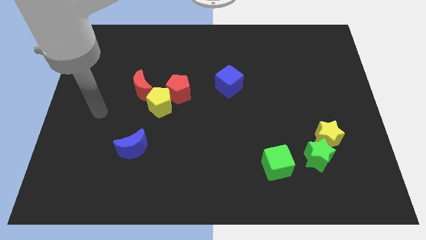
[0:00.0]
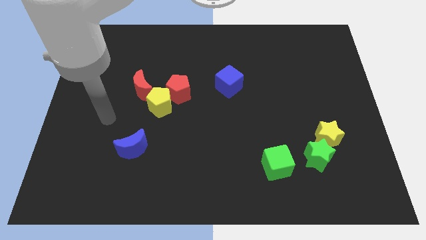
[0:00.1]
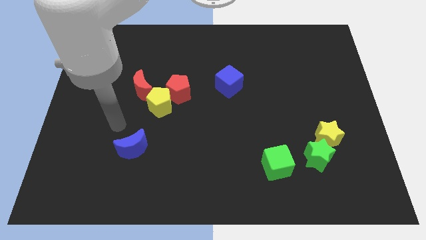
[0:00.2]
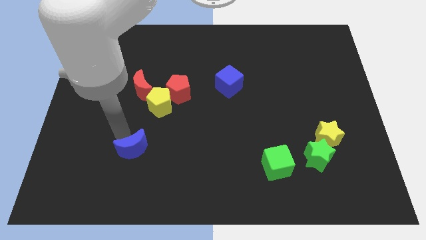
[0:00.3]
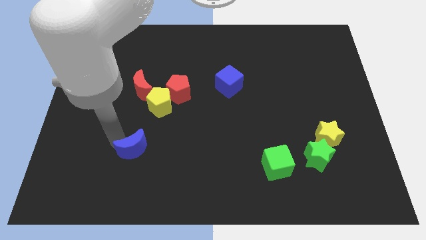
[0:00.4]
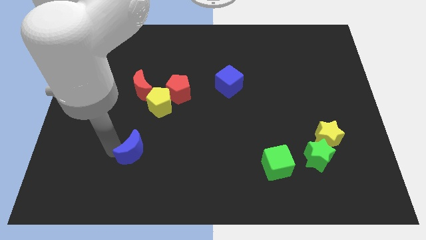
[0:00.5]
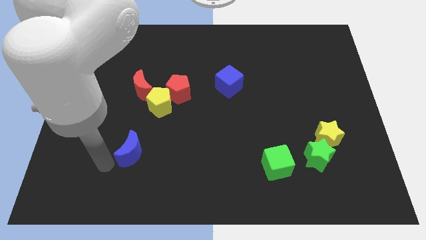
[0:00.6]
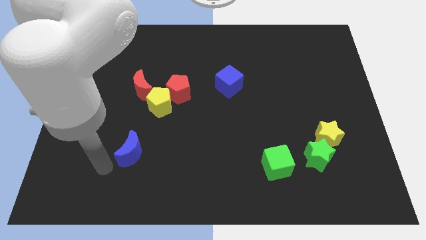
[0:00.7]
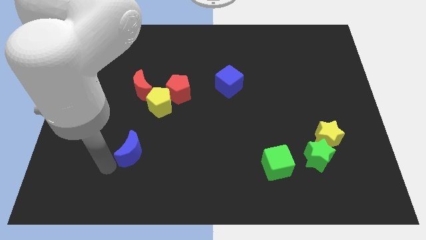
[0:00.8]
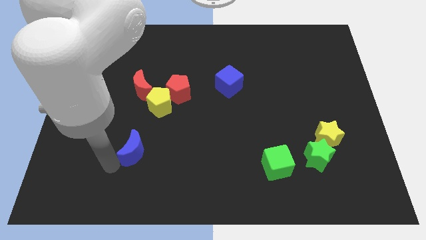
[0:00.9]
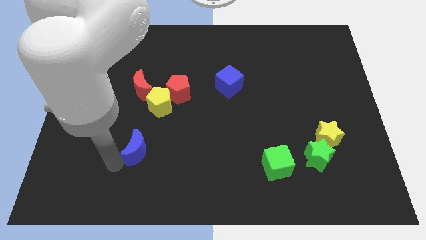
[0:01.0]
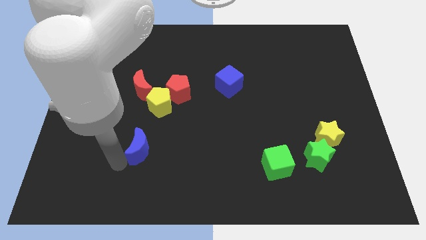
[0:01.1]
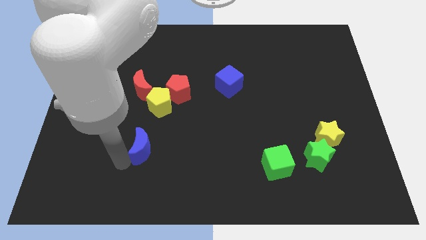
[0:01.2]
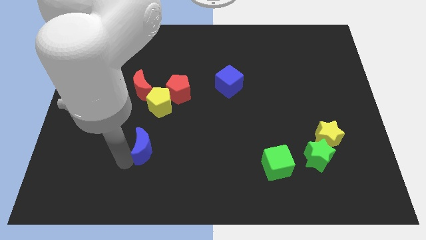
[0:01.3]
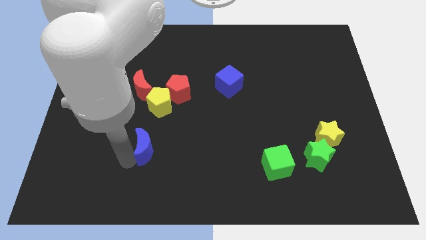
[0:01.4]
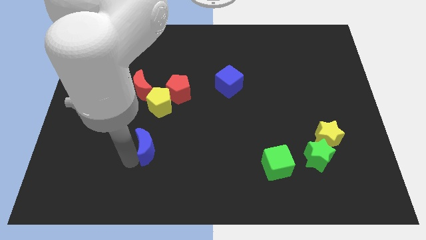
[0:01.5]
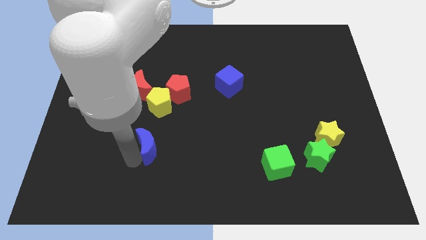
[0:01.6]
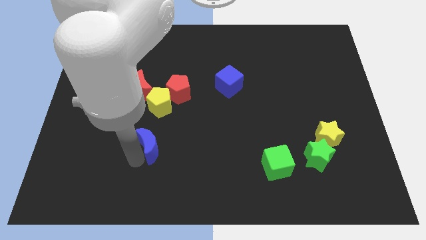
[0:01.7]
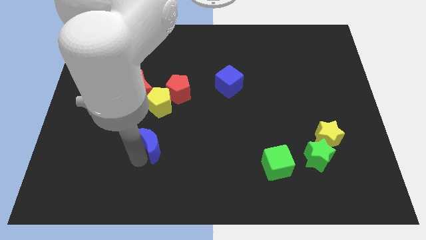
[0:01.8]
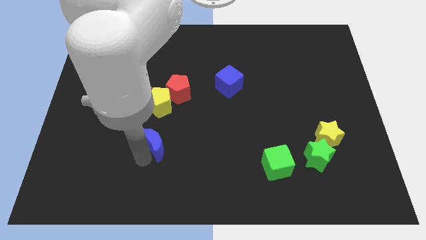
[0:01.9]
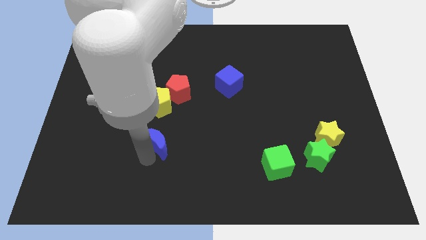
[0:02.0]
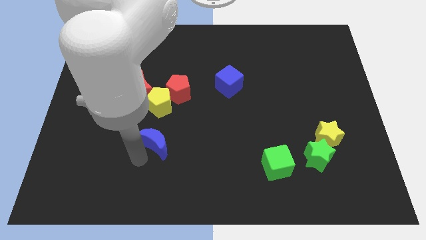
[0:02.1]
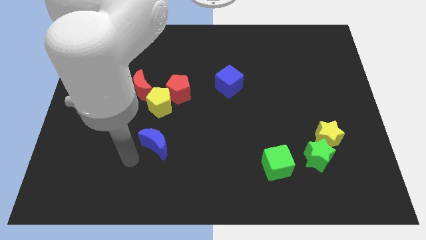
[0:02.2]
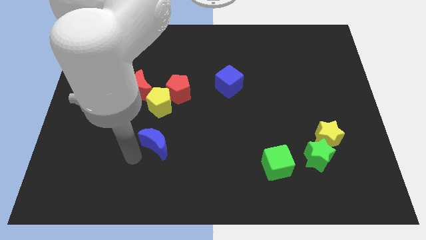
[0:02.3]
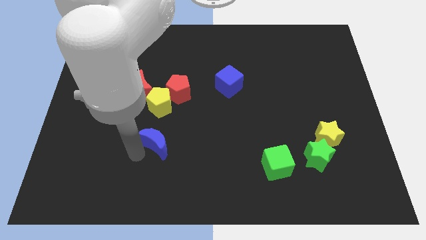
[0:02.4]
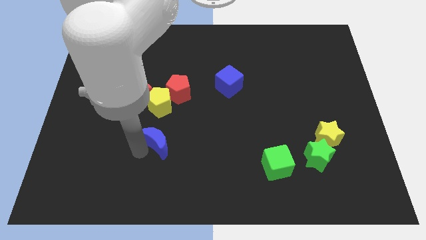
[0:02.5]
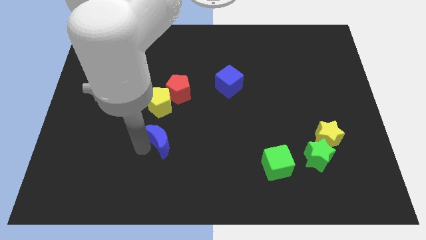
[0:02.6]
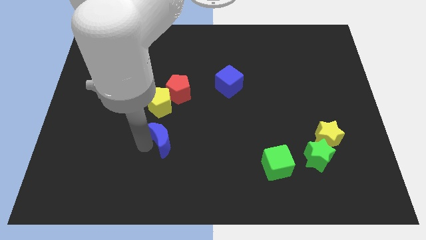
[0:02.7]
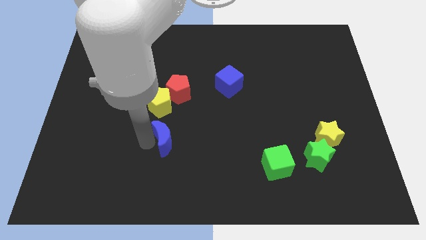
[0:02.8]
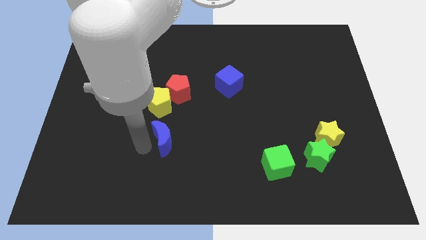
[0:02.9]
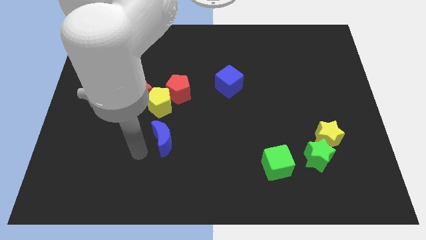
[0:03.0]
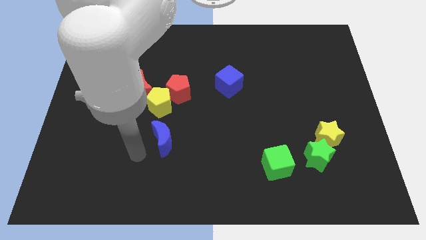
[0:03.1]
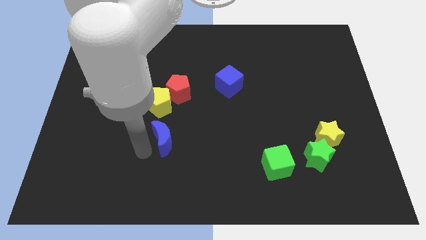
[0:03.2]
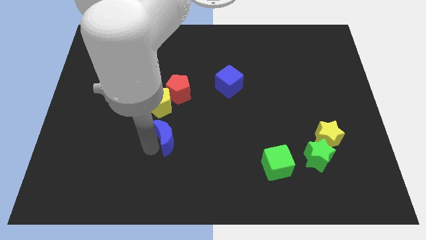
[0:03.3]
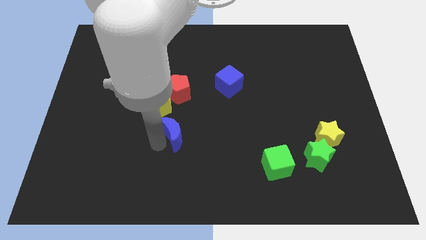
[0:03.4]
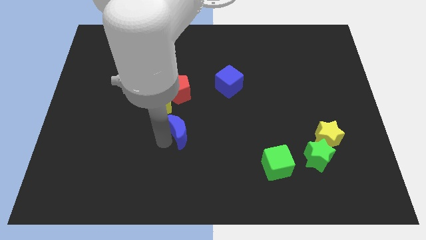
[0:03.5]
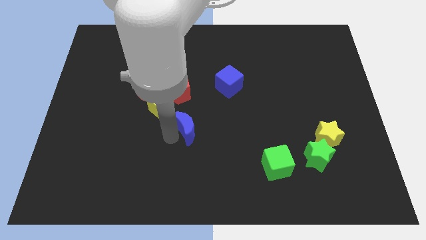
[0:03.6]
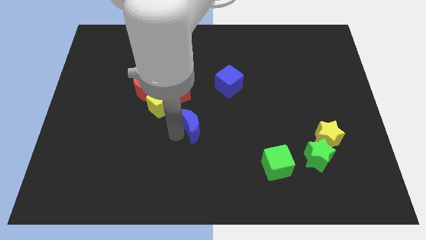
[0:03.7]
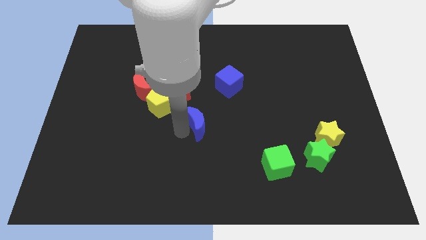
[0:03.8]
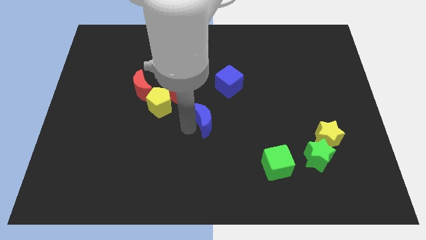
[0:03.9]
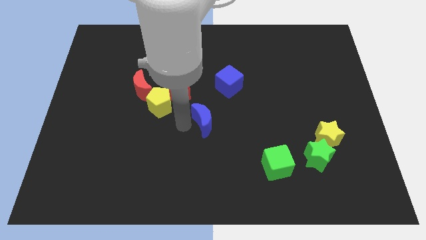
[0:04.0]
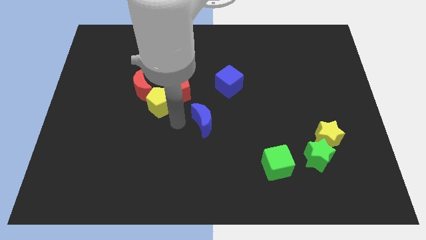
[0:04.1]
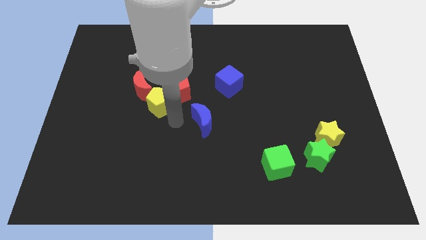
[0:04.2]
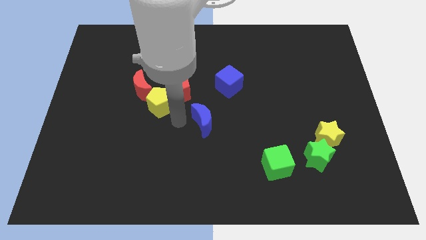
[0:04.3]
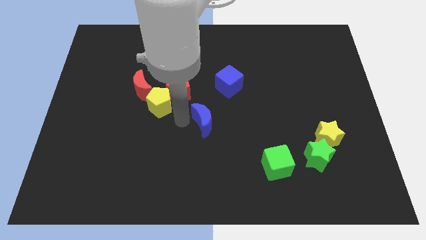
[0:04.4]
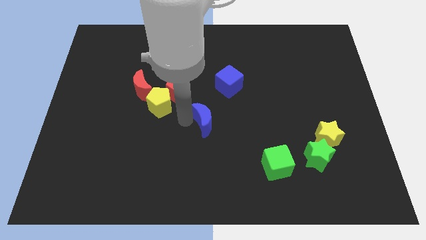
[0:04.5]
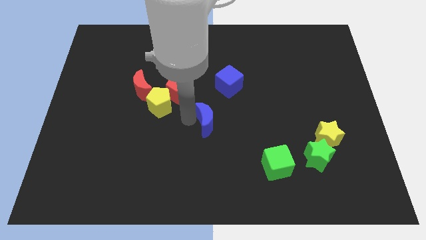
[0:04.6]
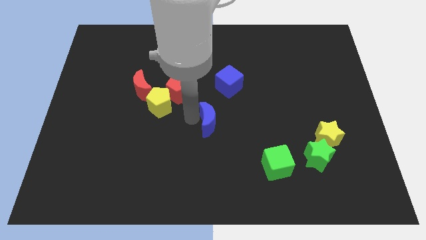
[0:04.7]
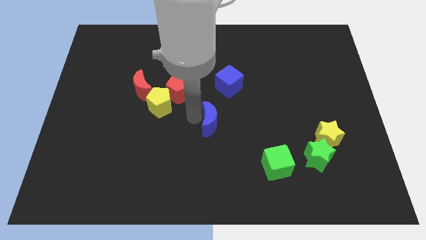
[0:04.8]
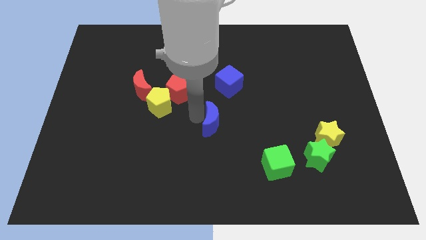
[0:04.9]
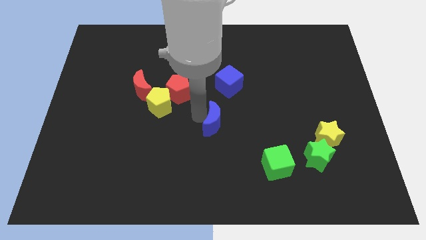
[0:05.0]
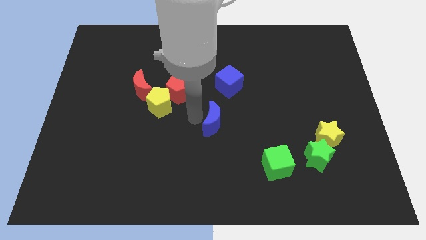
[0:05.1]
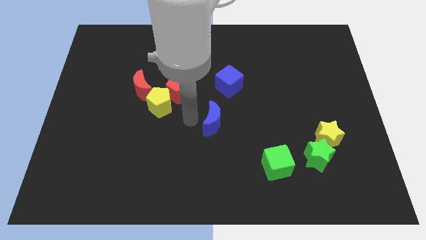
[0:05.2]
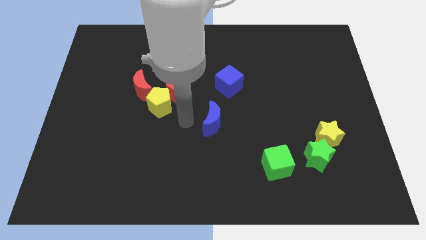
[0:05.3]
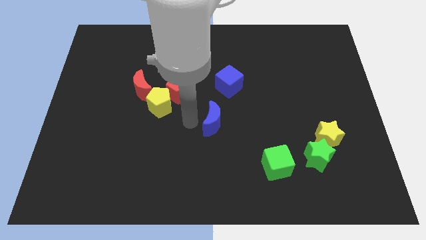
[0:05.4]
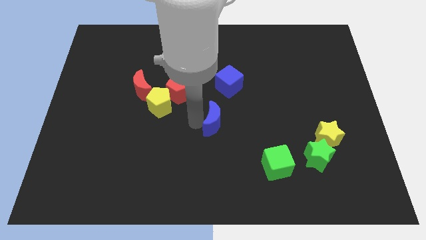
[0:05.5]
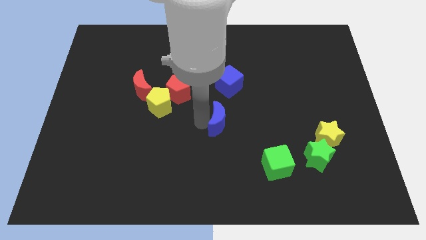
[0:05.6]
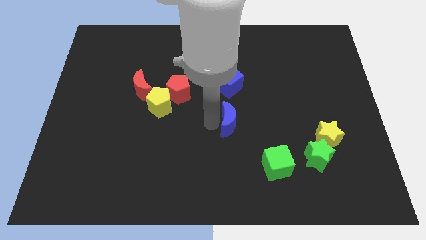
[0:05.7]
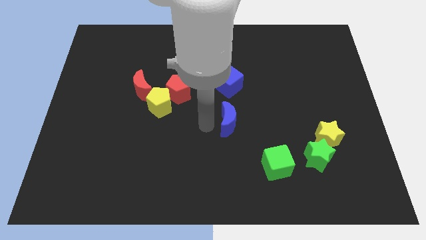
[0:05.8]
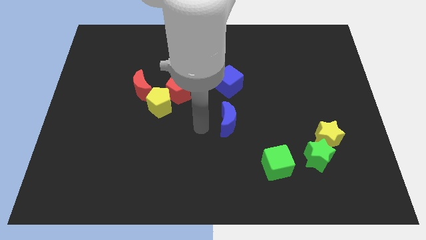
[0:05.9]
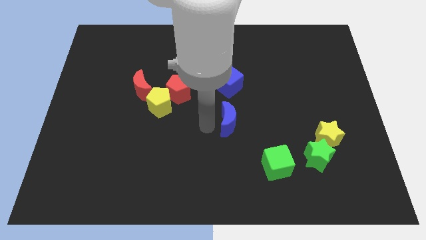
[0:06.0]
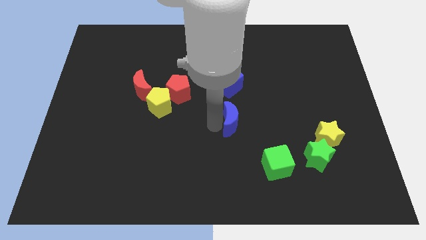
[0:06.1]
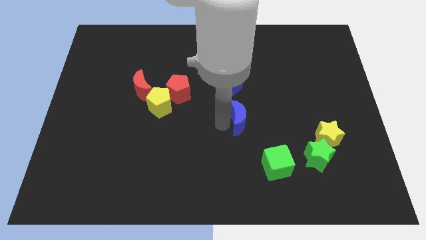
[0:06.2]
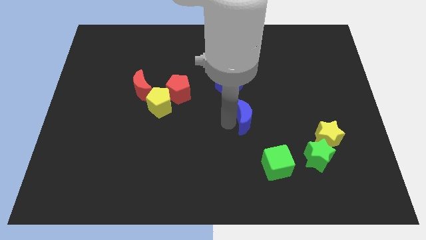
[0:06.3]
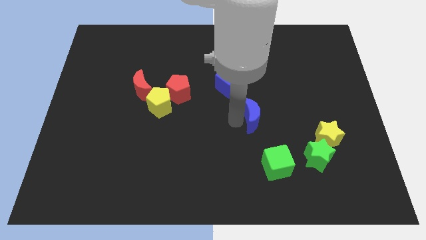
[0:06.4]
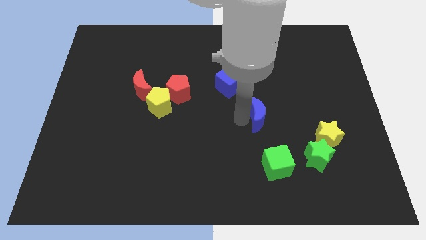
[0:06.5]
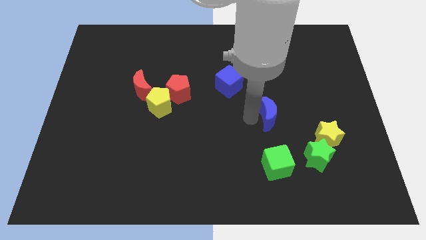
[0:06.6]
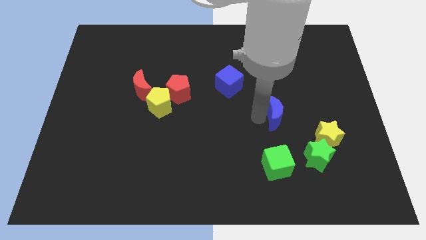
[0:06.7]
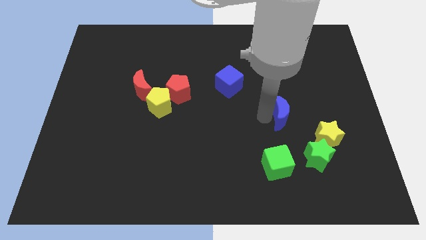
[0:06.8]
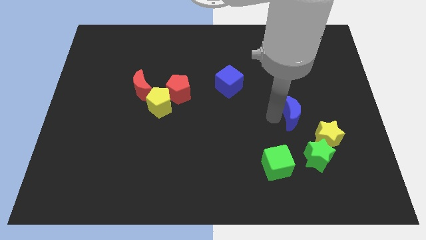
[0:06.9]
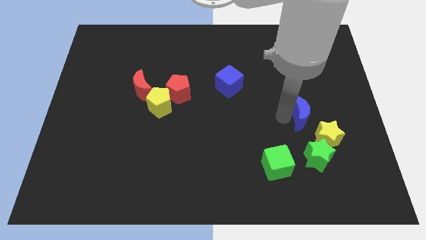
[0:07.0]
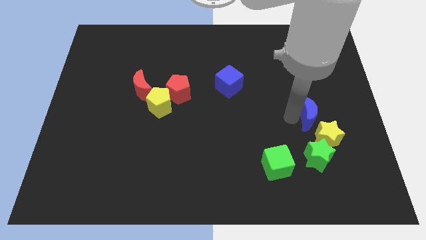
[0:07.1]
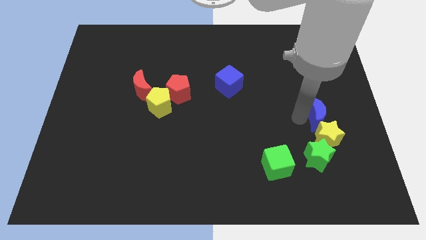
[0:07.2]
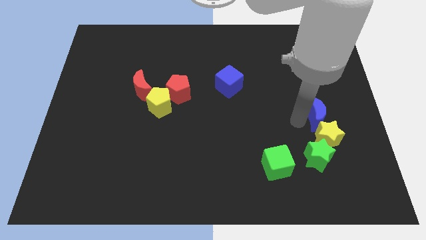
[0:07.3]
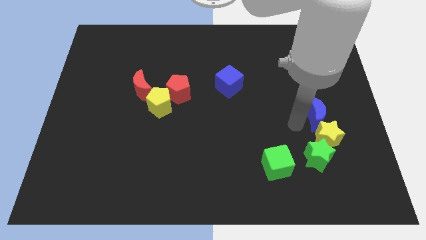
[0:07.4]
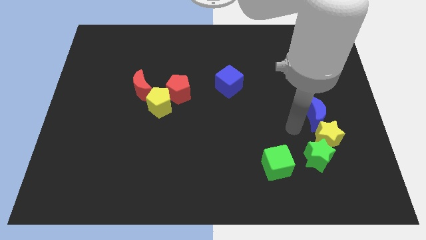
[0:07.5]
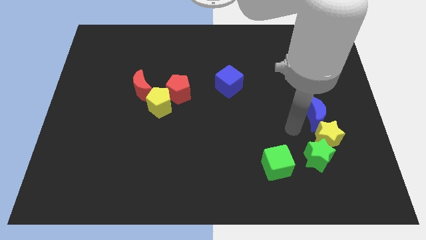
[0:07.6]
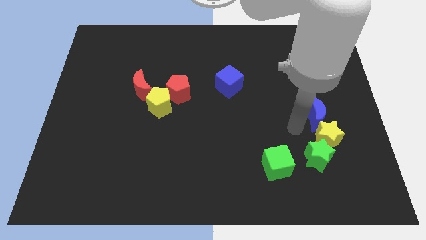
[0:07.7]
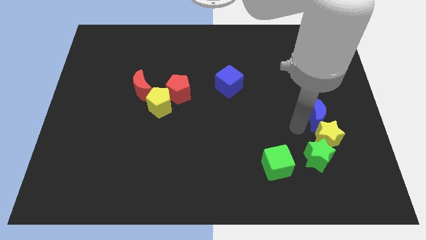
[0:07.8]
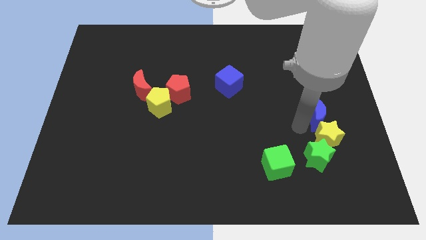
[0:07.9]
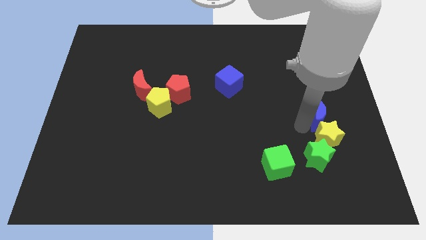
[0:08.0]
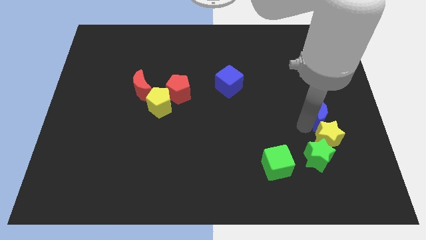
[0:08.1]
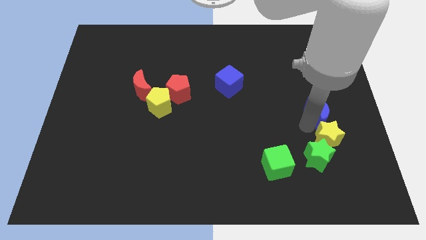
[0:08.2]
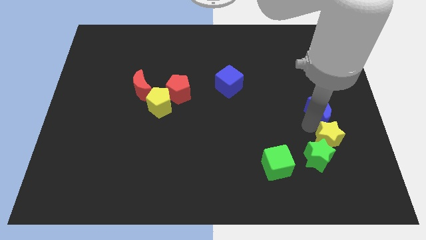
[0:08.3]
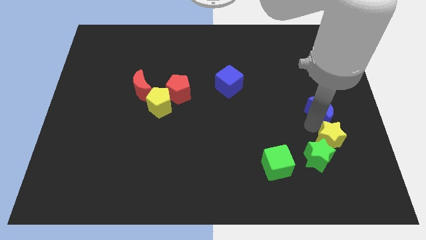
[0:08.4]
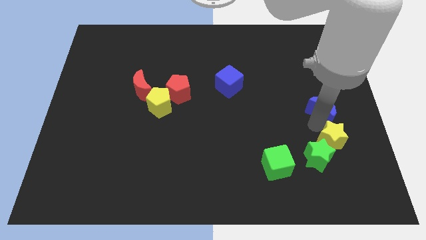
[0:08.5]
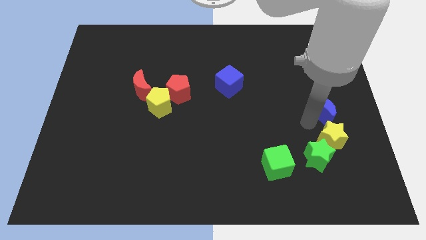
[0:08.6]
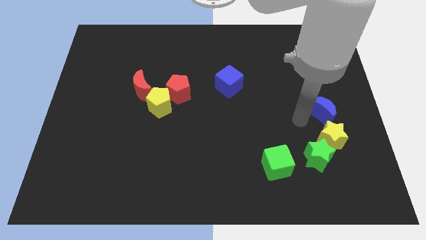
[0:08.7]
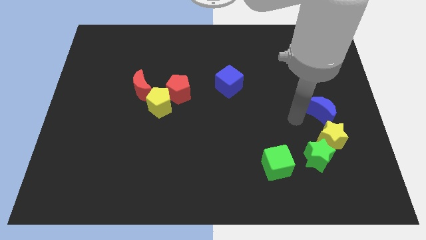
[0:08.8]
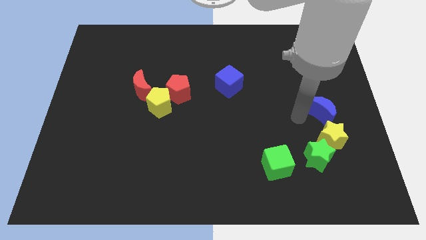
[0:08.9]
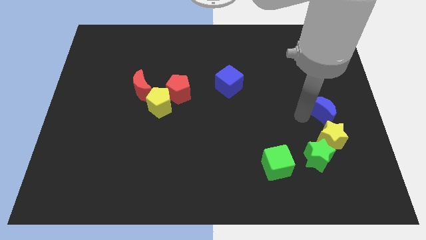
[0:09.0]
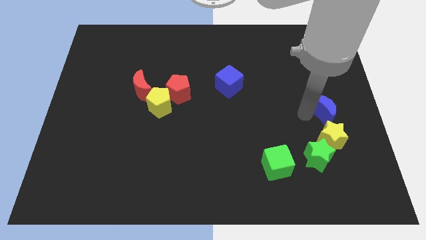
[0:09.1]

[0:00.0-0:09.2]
move the blue moon to the center right
